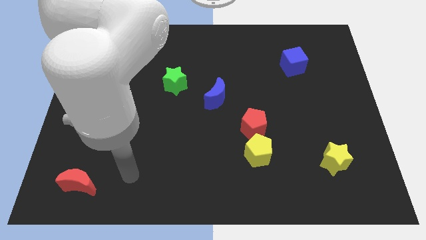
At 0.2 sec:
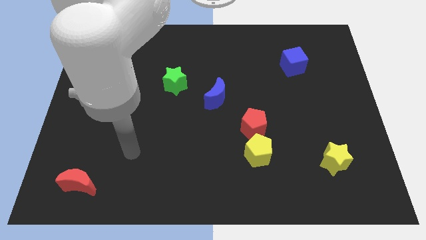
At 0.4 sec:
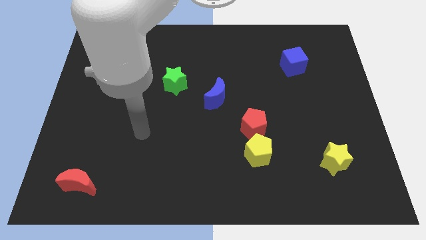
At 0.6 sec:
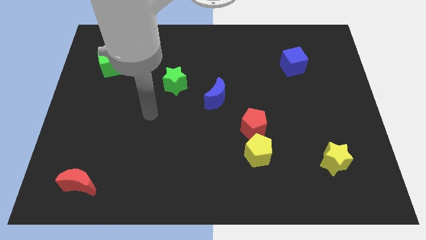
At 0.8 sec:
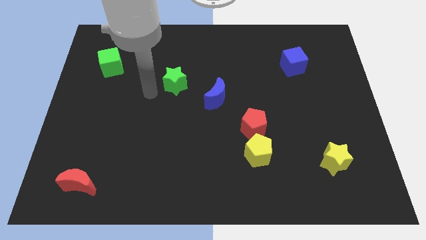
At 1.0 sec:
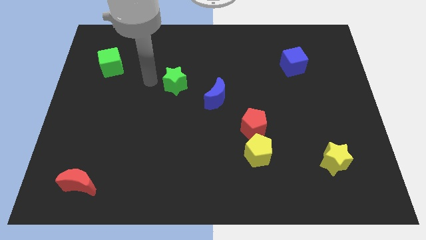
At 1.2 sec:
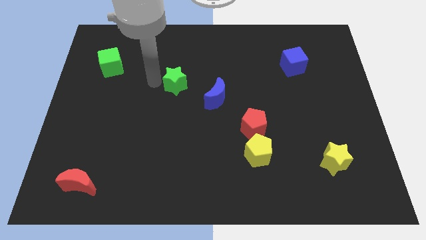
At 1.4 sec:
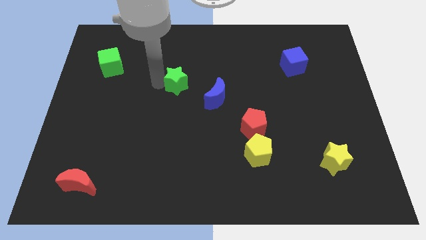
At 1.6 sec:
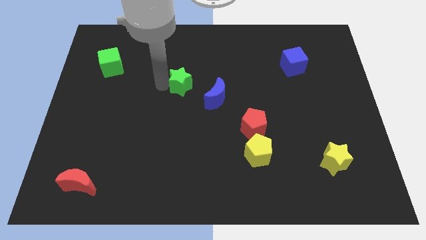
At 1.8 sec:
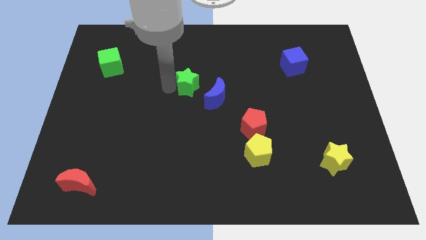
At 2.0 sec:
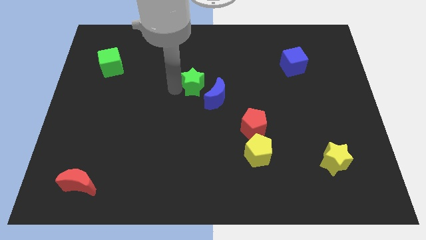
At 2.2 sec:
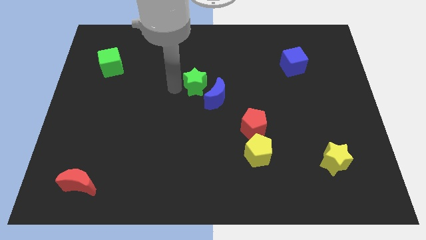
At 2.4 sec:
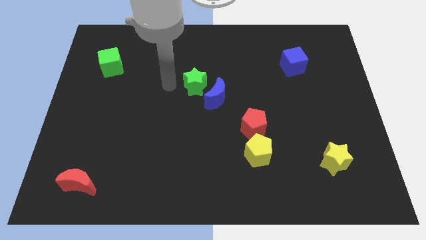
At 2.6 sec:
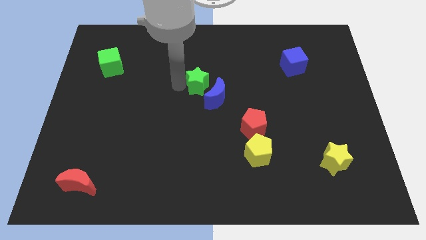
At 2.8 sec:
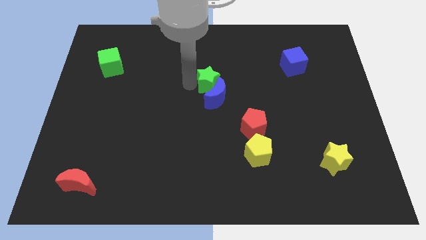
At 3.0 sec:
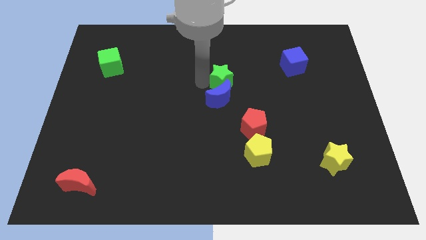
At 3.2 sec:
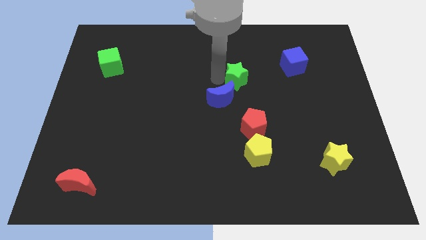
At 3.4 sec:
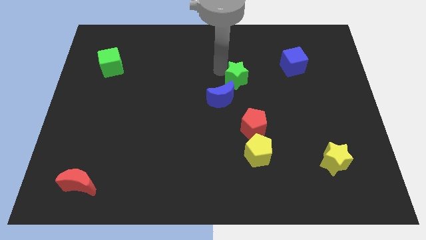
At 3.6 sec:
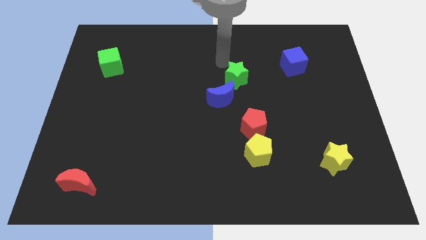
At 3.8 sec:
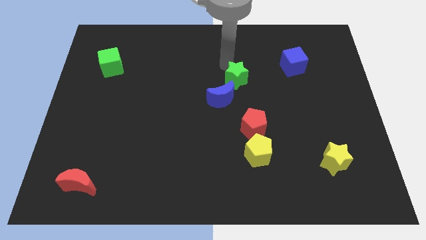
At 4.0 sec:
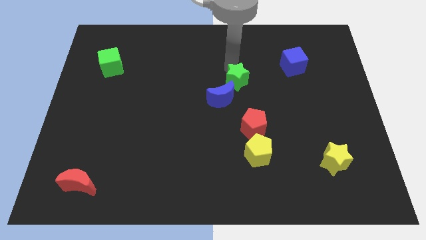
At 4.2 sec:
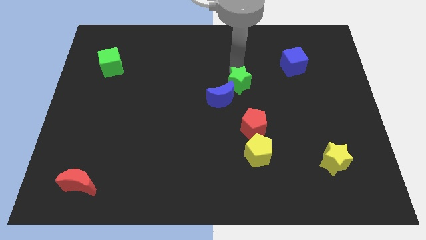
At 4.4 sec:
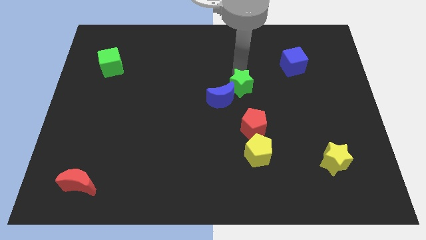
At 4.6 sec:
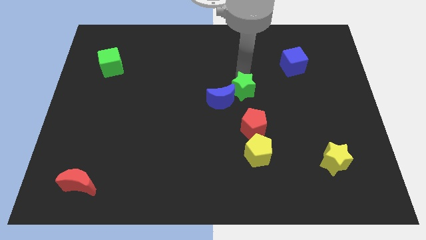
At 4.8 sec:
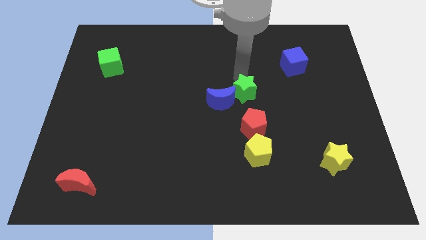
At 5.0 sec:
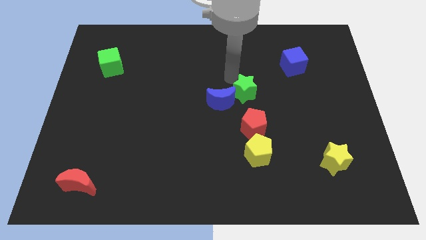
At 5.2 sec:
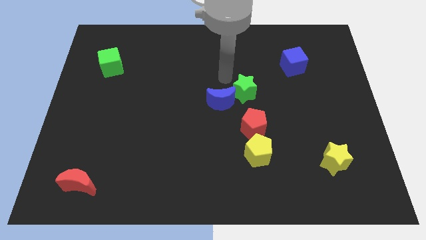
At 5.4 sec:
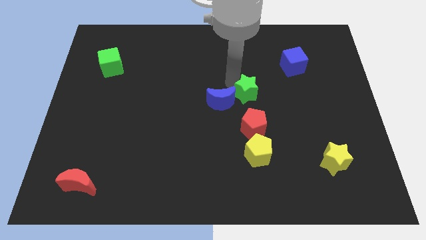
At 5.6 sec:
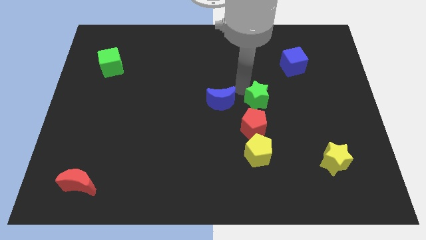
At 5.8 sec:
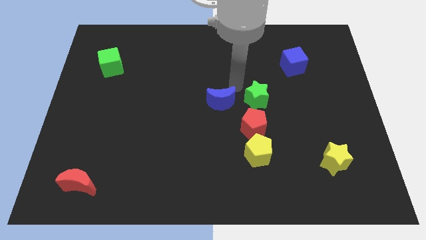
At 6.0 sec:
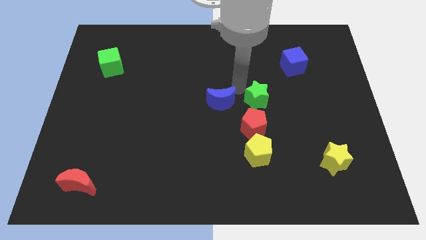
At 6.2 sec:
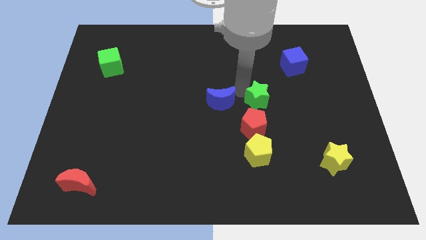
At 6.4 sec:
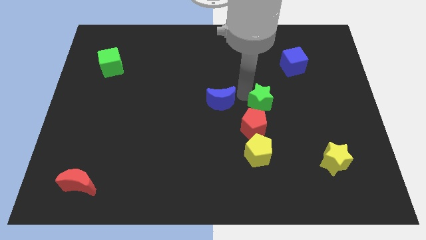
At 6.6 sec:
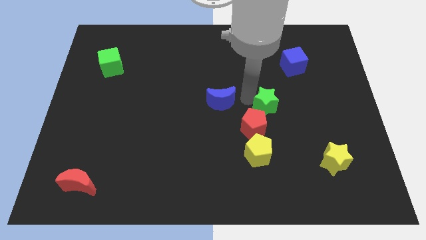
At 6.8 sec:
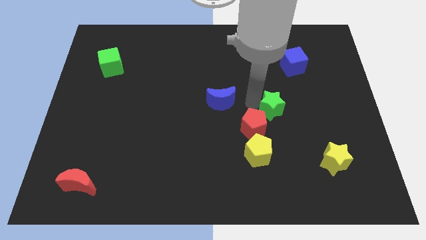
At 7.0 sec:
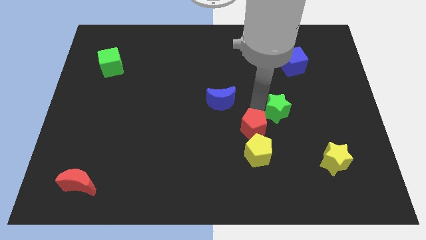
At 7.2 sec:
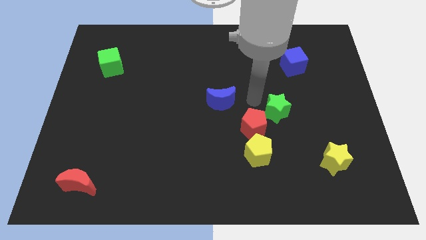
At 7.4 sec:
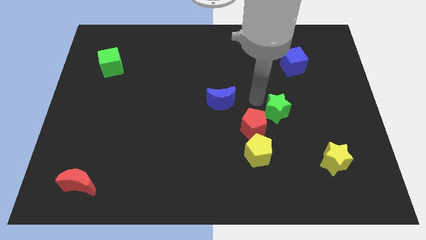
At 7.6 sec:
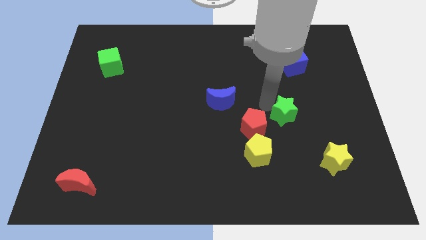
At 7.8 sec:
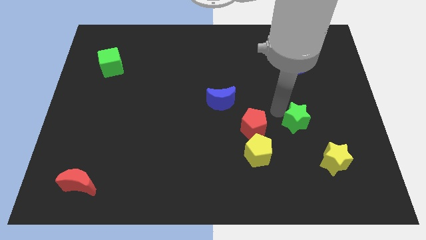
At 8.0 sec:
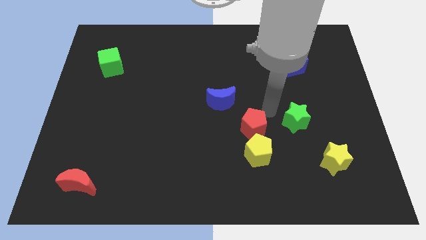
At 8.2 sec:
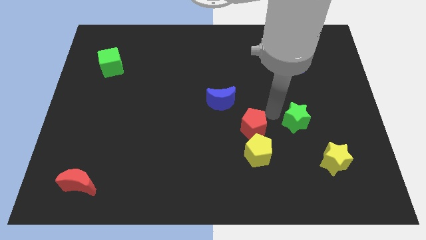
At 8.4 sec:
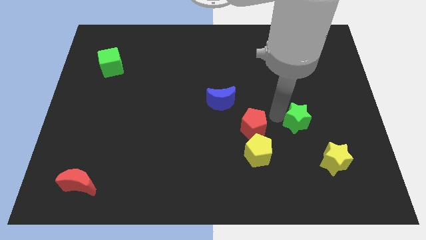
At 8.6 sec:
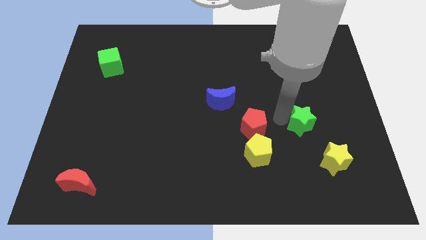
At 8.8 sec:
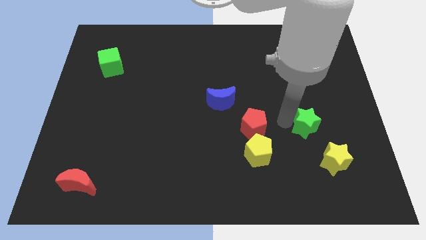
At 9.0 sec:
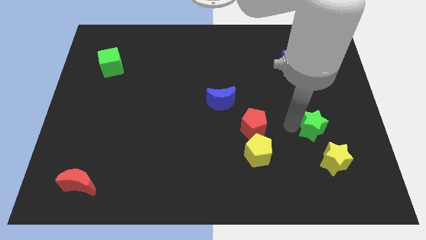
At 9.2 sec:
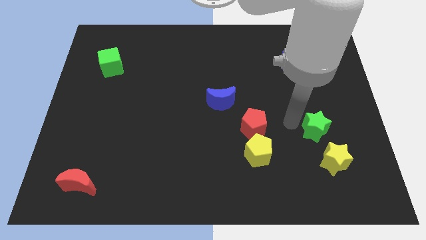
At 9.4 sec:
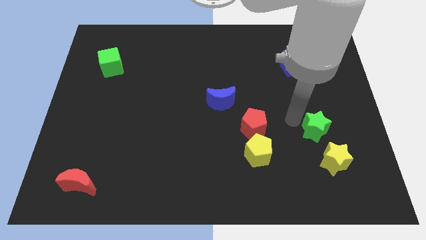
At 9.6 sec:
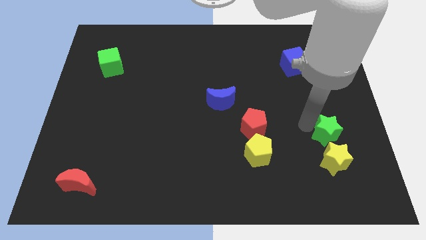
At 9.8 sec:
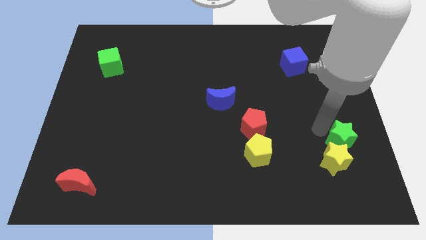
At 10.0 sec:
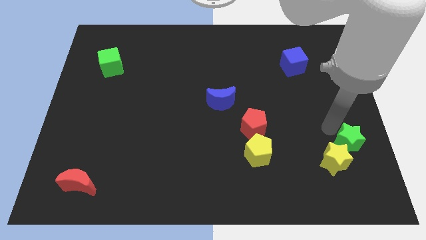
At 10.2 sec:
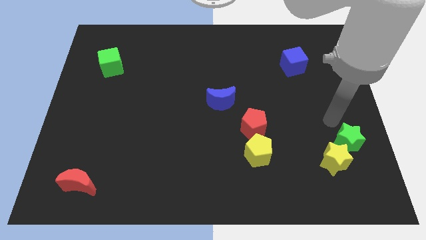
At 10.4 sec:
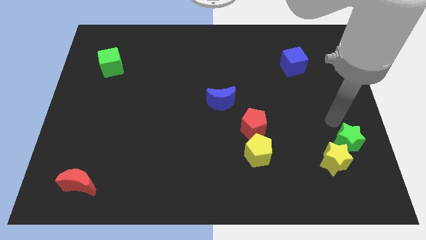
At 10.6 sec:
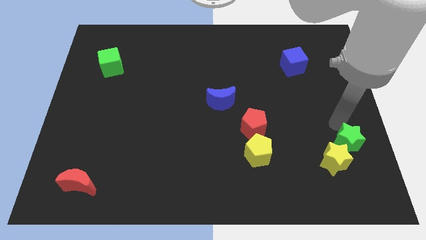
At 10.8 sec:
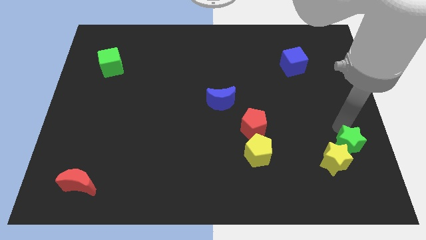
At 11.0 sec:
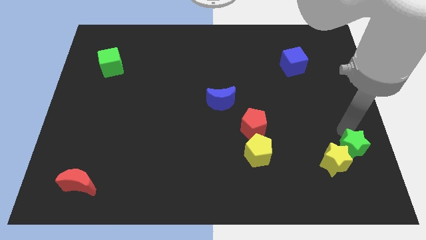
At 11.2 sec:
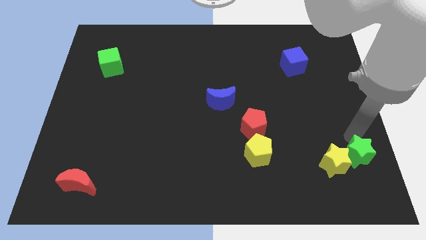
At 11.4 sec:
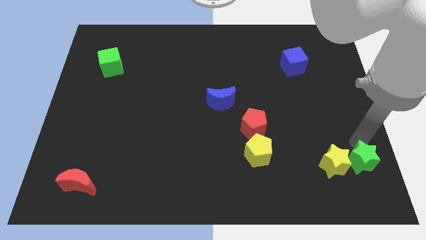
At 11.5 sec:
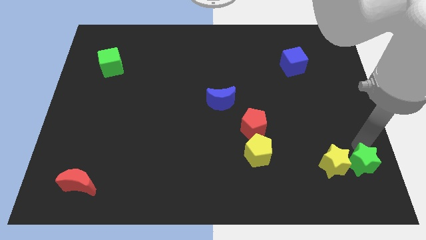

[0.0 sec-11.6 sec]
slide the green star to the bottom right corner
